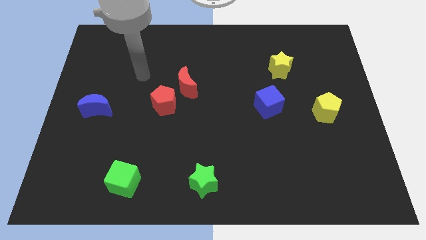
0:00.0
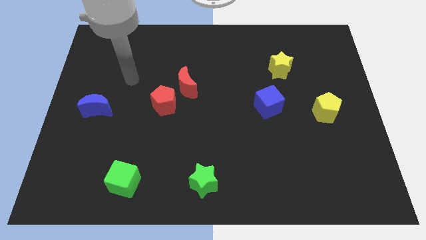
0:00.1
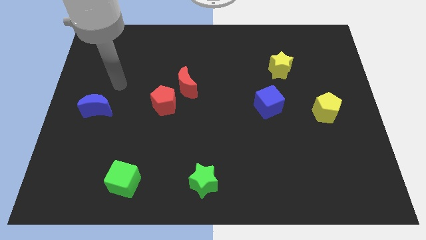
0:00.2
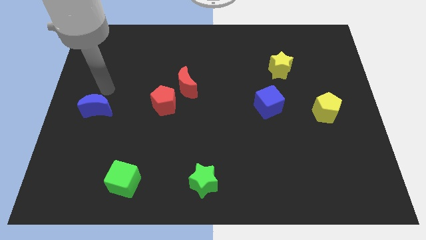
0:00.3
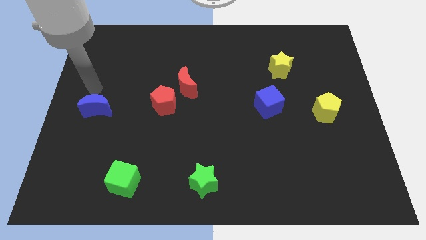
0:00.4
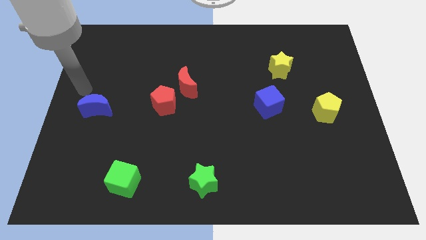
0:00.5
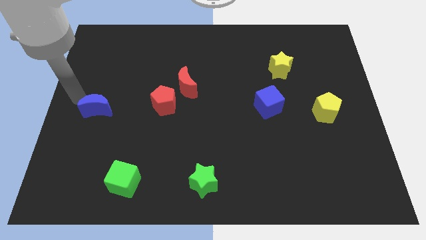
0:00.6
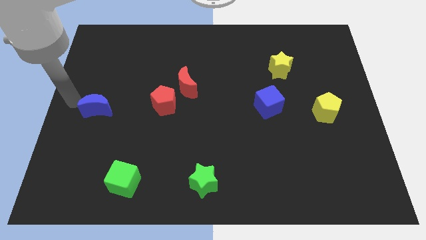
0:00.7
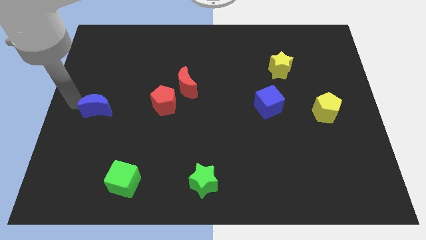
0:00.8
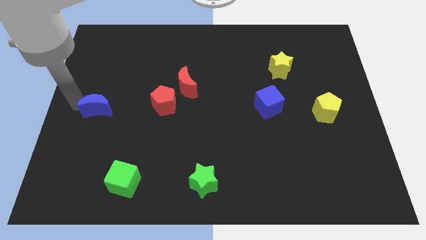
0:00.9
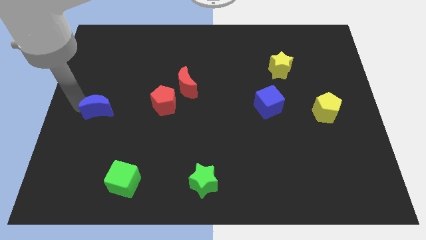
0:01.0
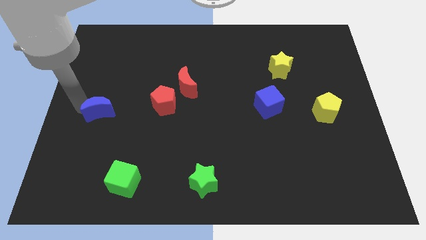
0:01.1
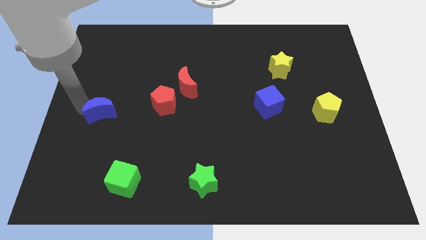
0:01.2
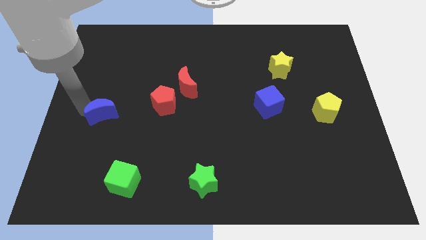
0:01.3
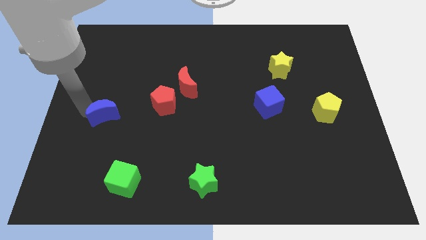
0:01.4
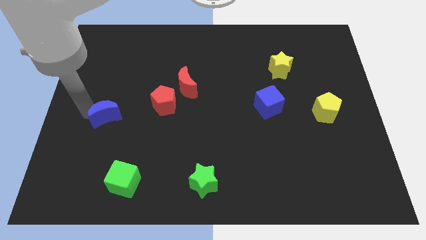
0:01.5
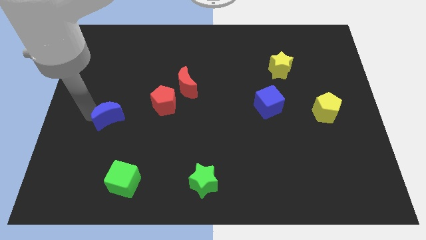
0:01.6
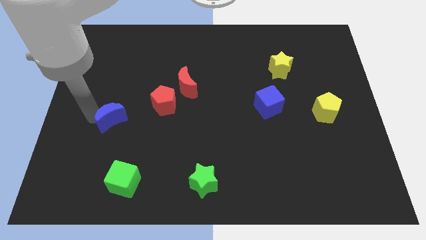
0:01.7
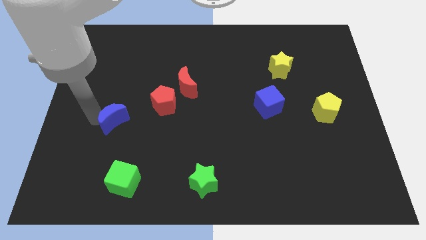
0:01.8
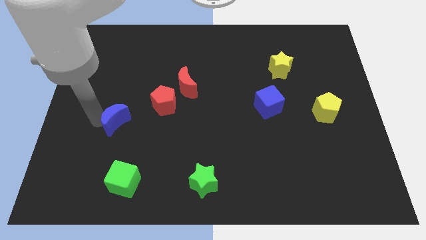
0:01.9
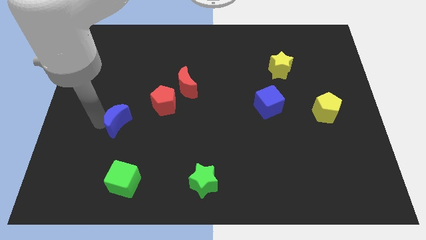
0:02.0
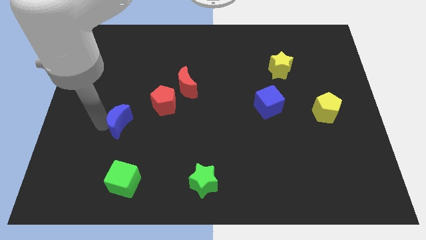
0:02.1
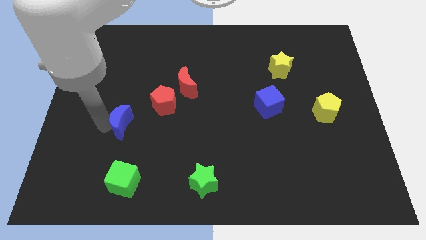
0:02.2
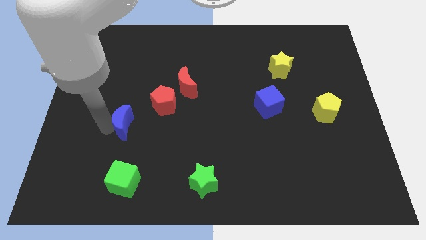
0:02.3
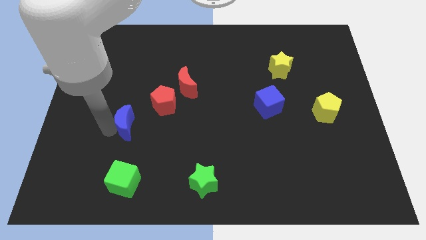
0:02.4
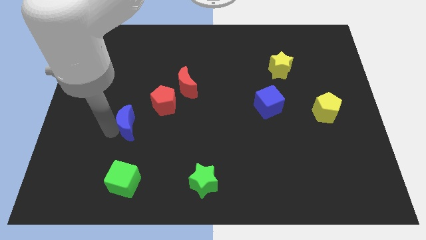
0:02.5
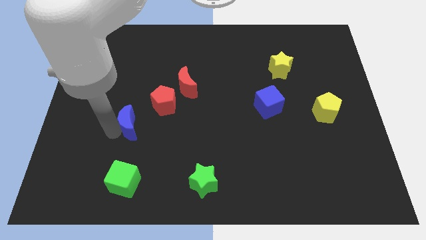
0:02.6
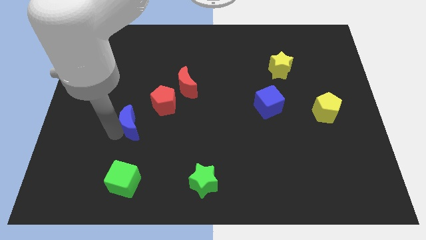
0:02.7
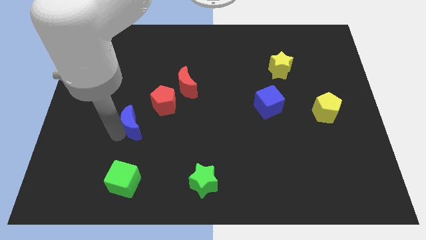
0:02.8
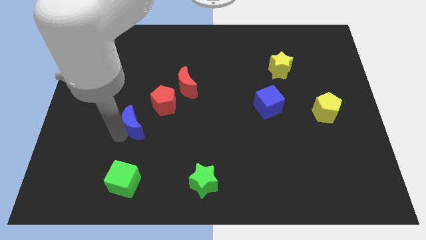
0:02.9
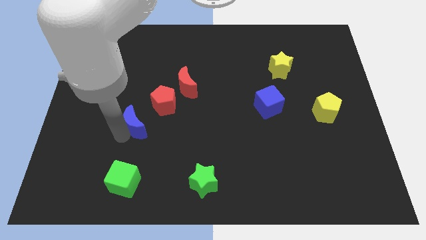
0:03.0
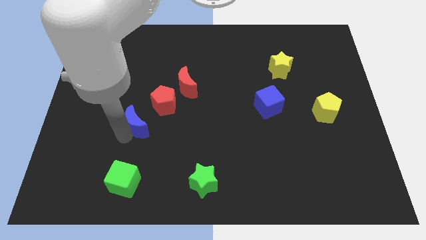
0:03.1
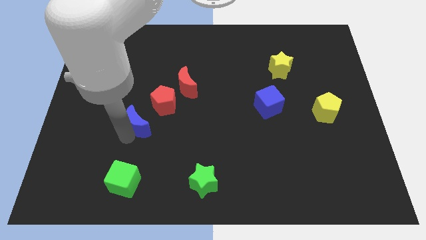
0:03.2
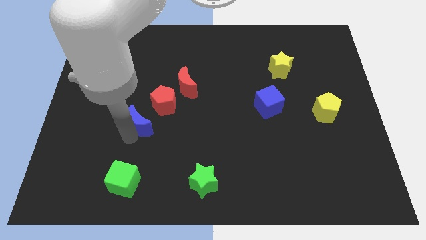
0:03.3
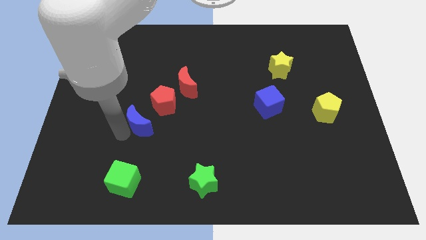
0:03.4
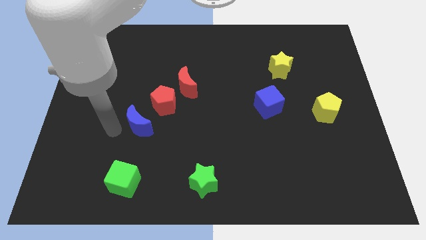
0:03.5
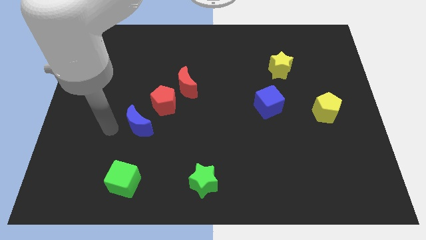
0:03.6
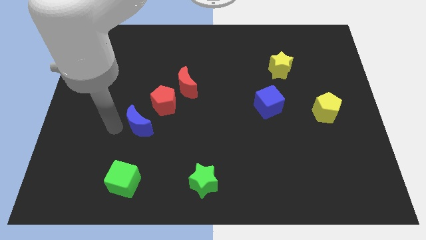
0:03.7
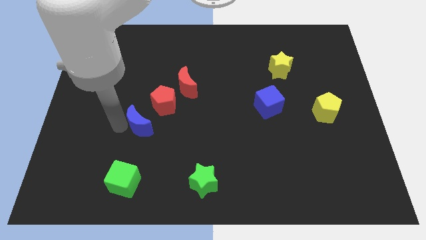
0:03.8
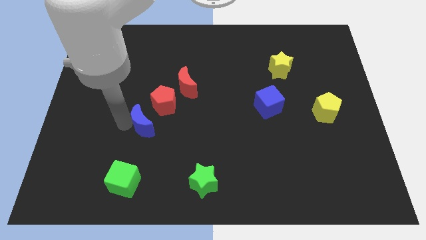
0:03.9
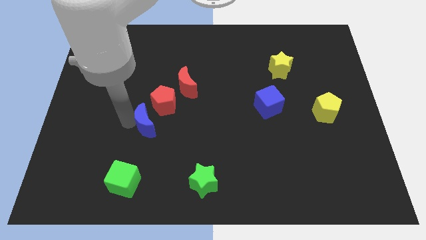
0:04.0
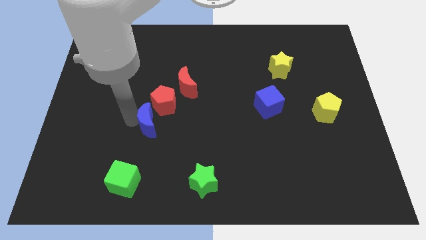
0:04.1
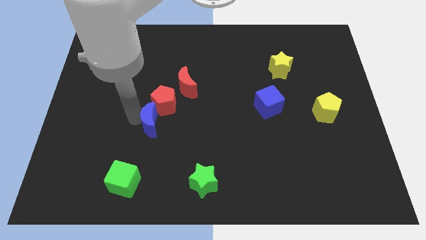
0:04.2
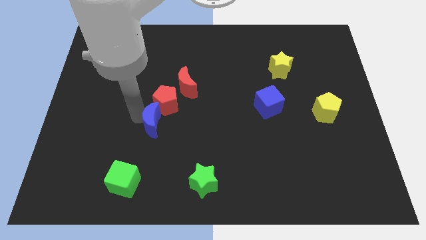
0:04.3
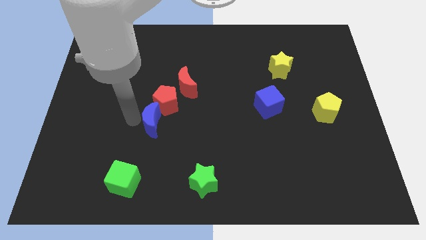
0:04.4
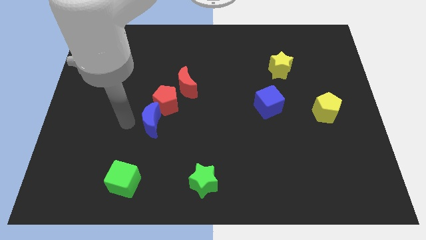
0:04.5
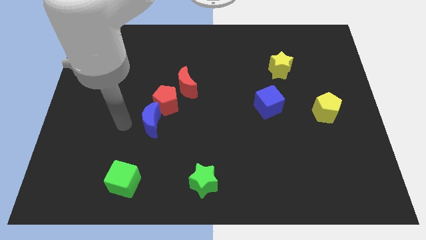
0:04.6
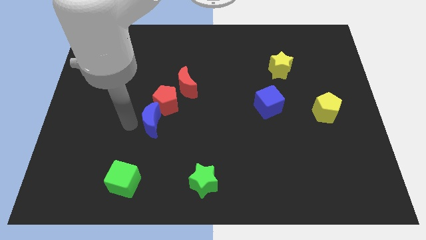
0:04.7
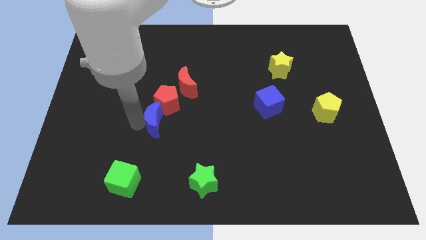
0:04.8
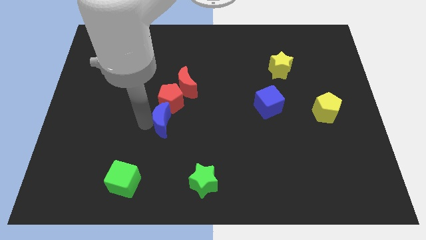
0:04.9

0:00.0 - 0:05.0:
move the blue moon below the red moon

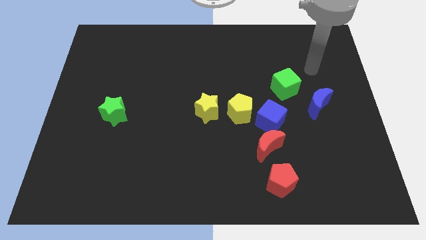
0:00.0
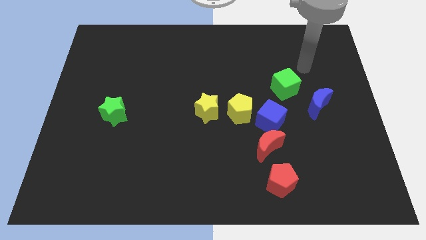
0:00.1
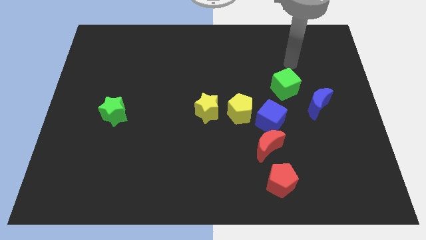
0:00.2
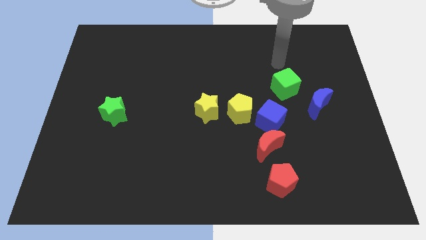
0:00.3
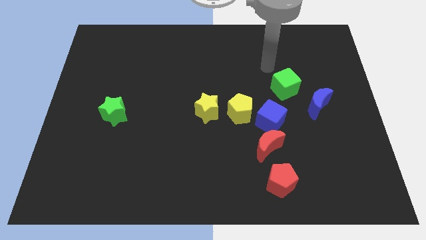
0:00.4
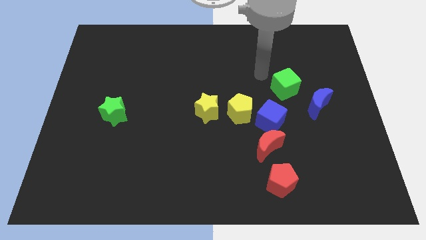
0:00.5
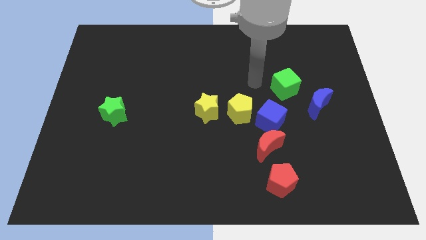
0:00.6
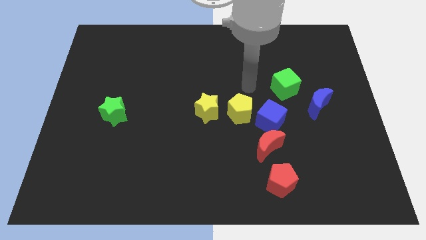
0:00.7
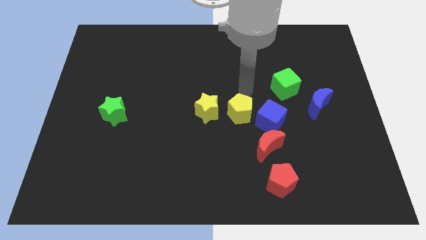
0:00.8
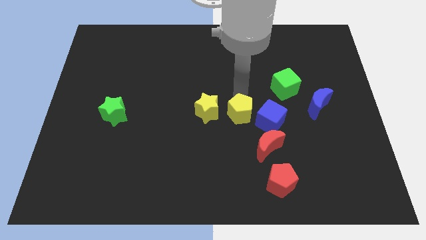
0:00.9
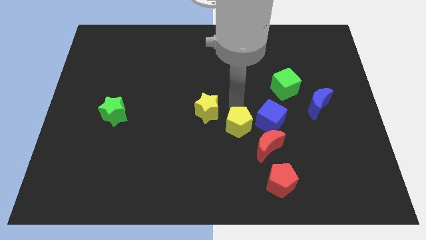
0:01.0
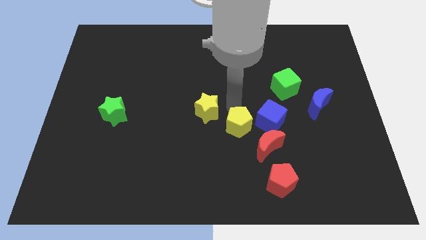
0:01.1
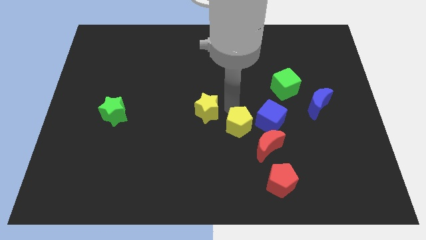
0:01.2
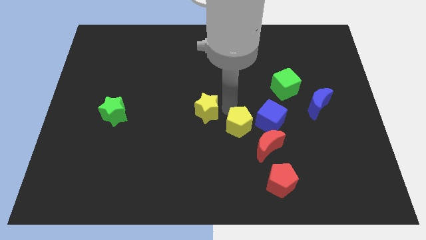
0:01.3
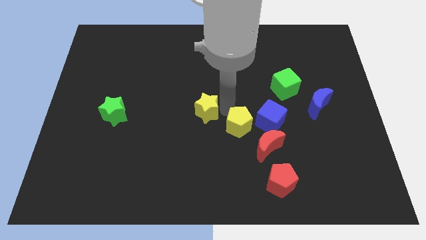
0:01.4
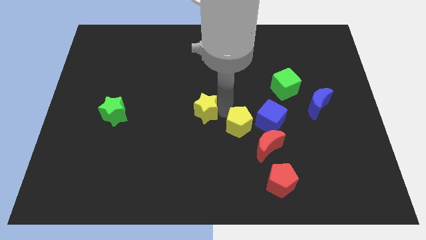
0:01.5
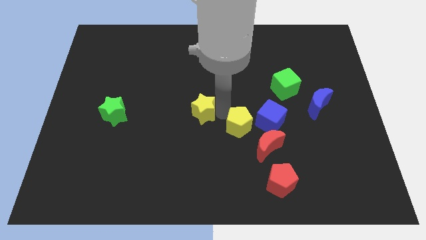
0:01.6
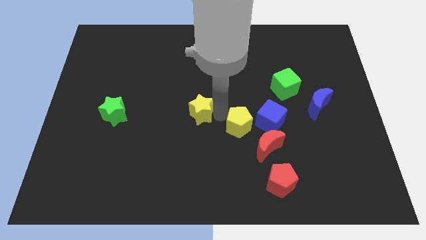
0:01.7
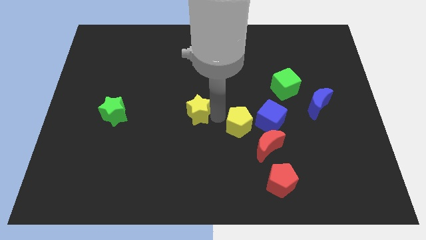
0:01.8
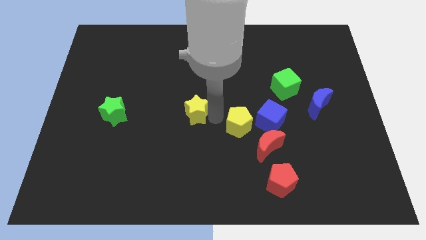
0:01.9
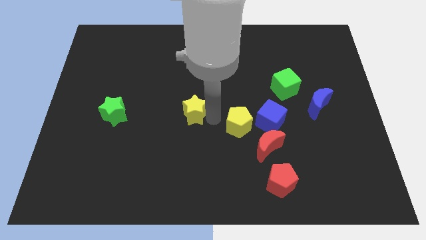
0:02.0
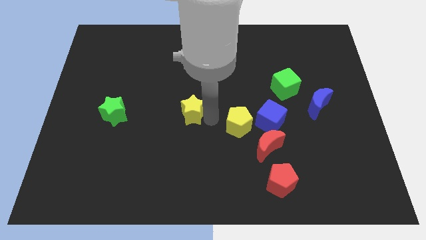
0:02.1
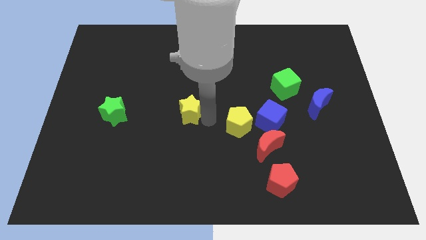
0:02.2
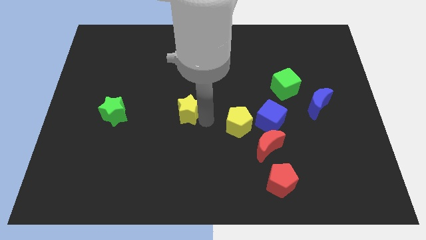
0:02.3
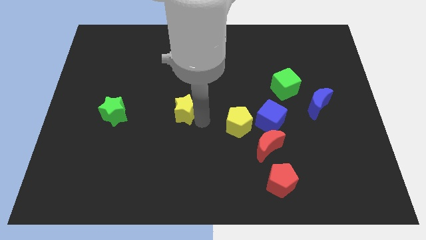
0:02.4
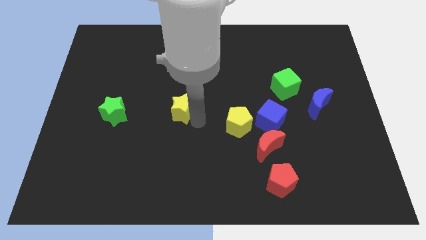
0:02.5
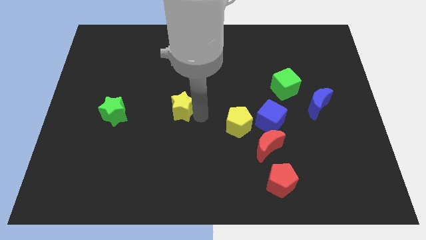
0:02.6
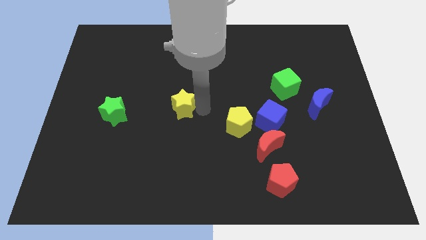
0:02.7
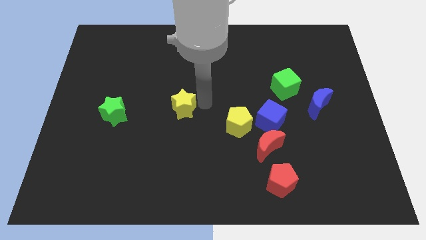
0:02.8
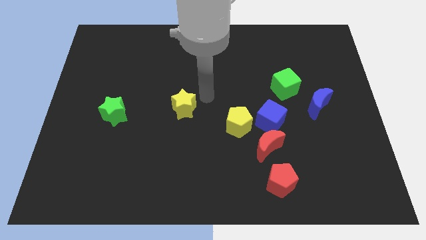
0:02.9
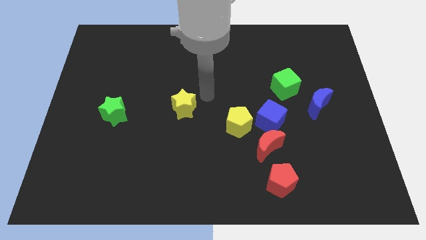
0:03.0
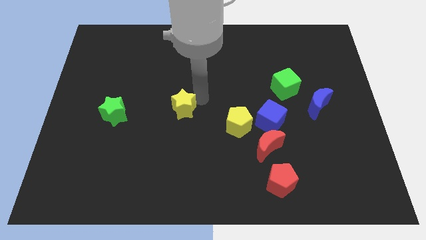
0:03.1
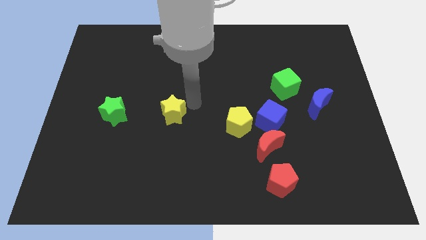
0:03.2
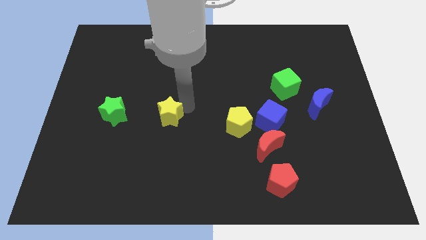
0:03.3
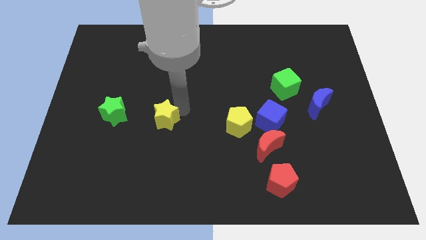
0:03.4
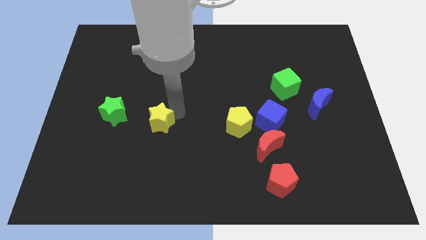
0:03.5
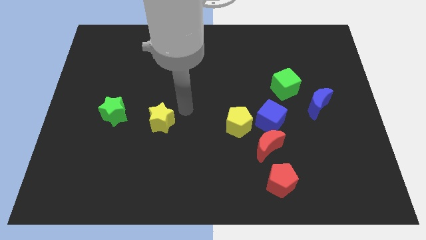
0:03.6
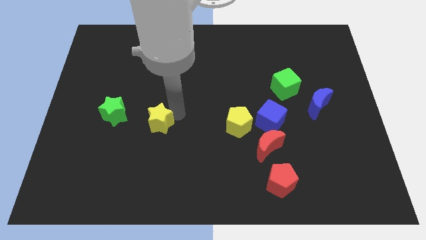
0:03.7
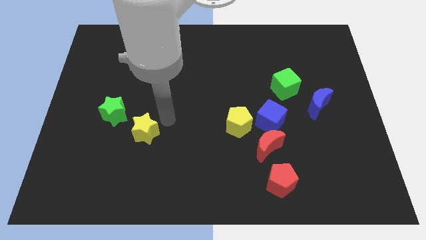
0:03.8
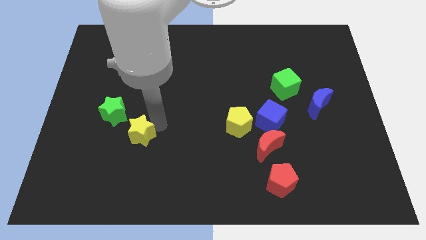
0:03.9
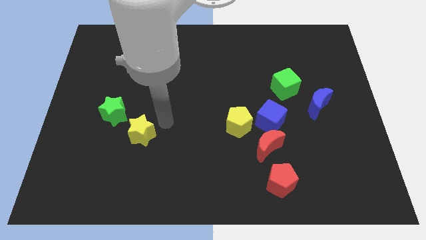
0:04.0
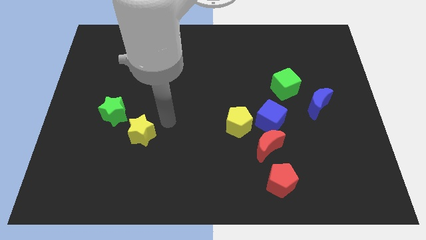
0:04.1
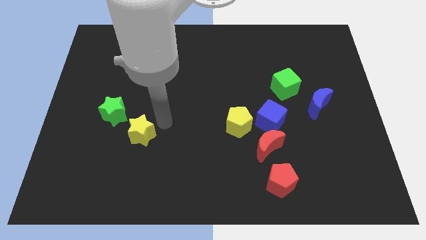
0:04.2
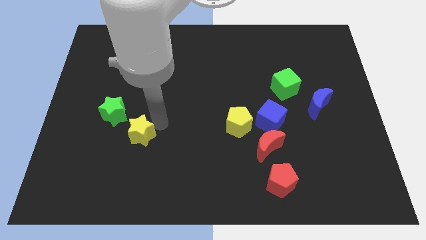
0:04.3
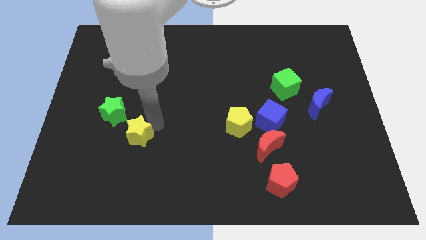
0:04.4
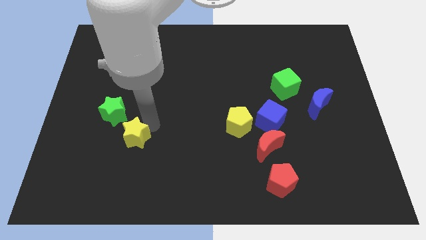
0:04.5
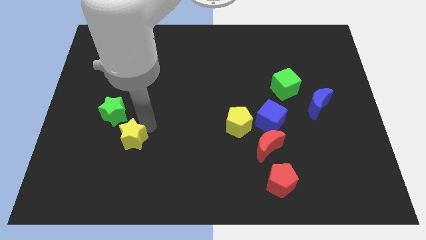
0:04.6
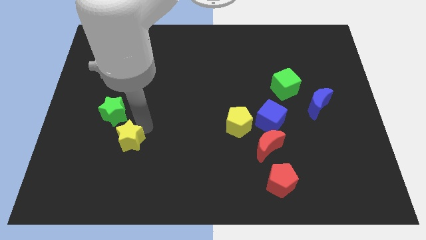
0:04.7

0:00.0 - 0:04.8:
slide the yellow star below the green star
